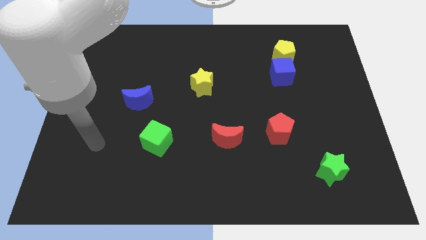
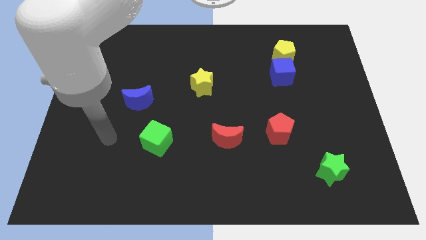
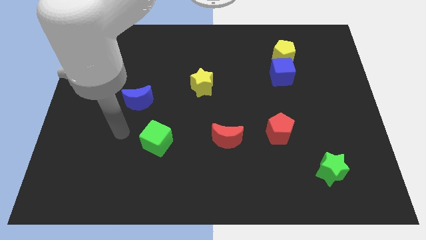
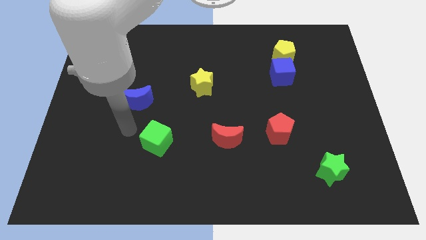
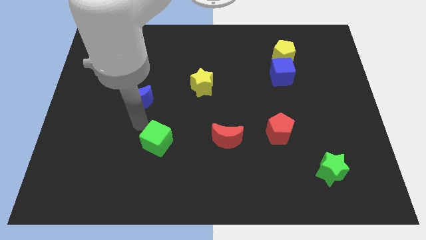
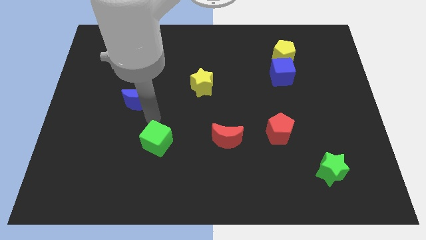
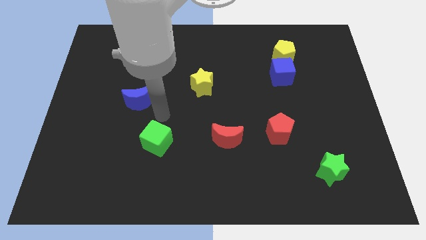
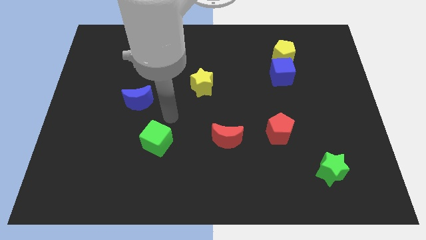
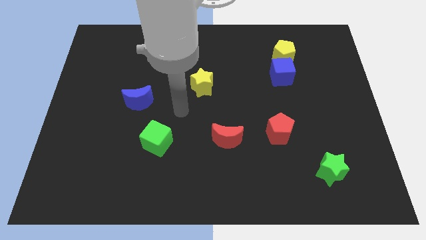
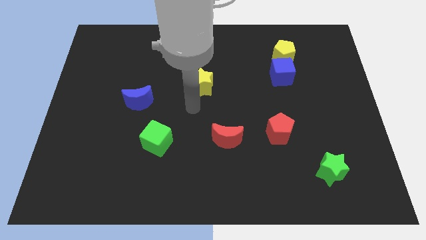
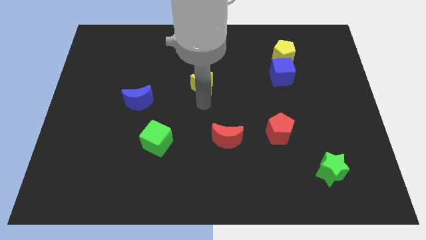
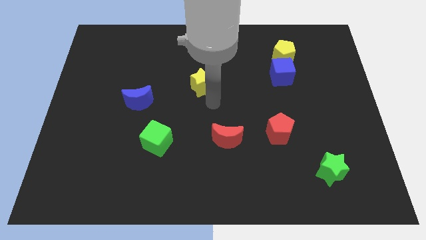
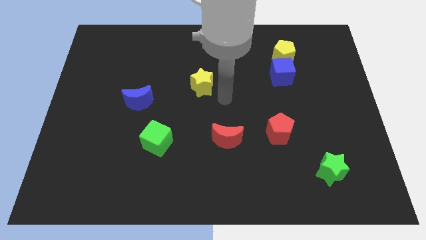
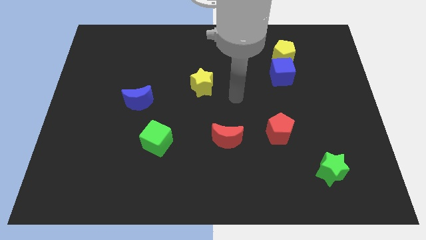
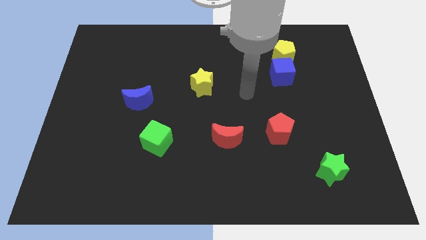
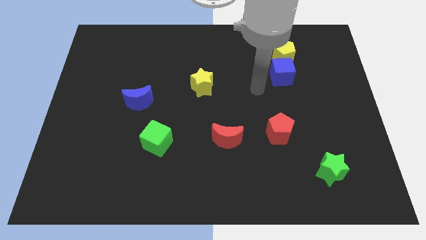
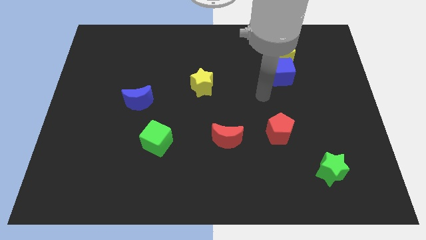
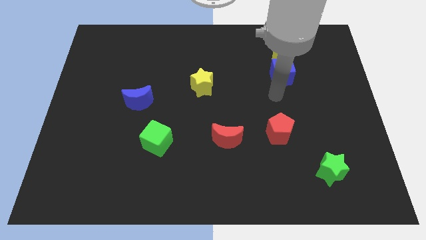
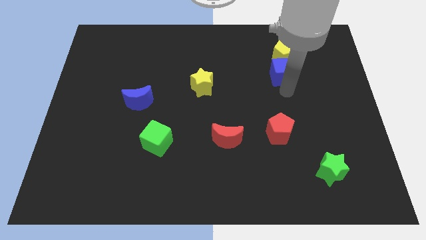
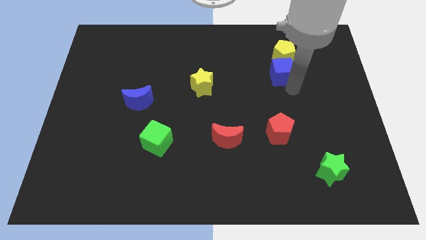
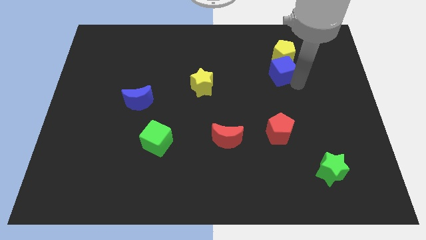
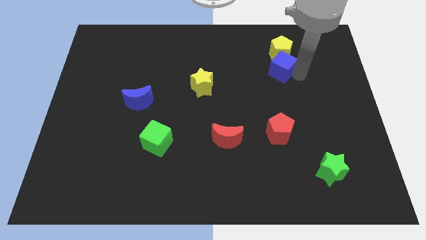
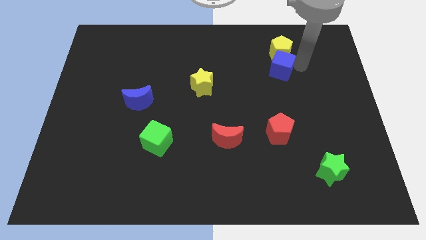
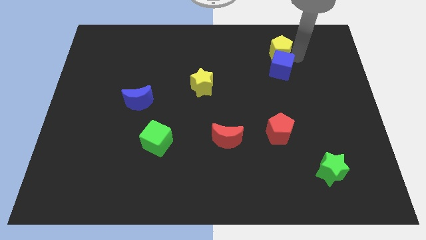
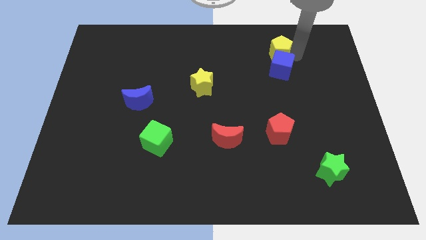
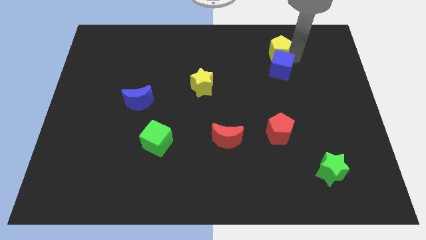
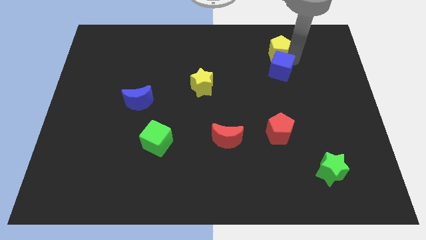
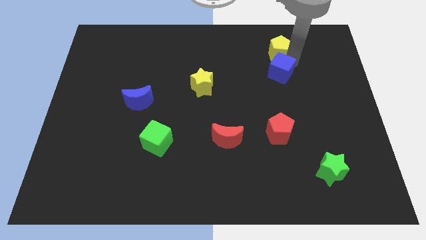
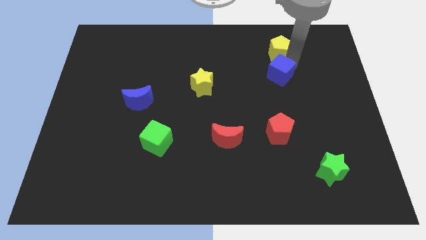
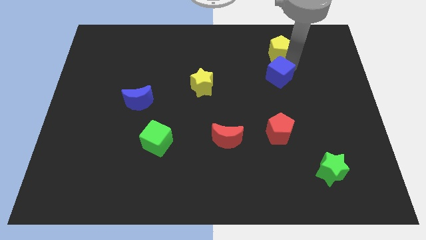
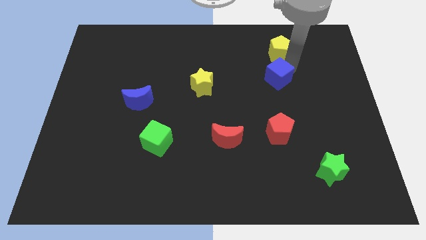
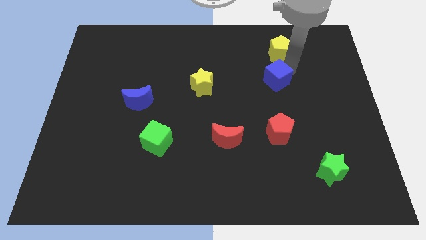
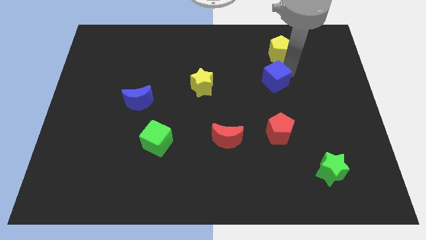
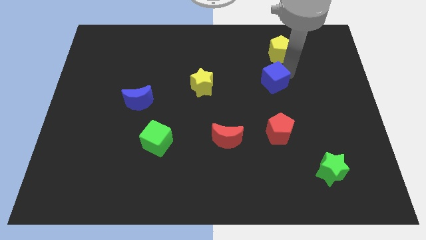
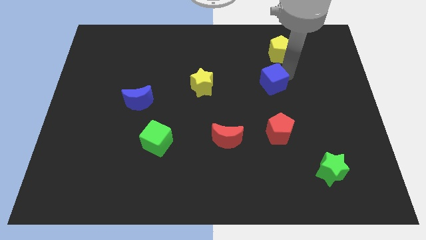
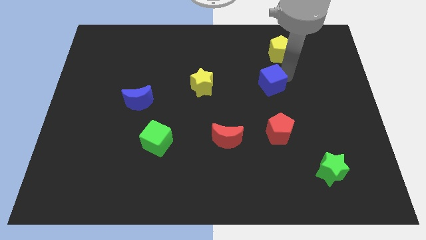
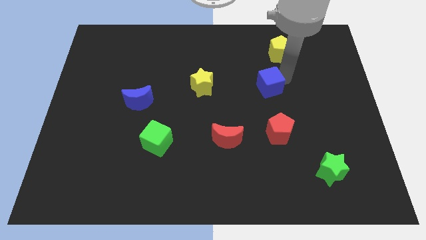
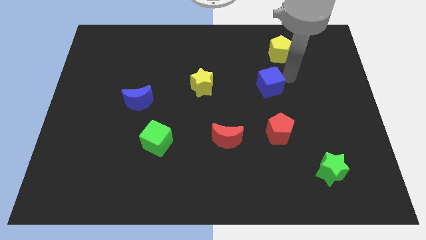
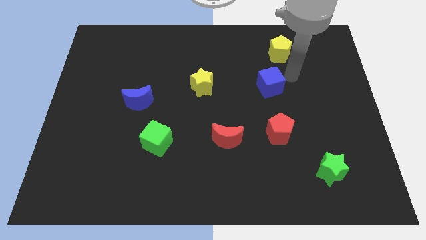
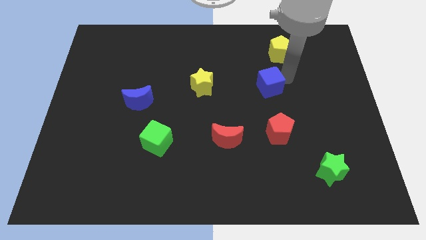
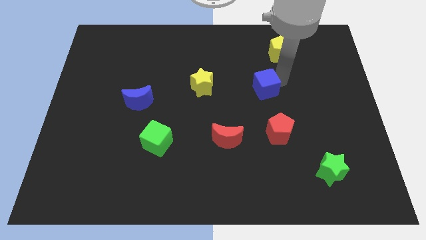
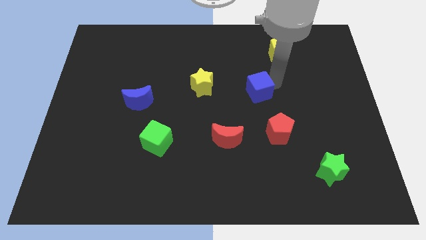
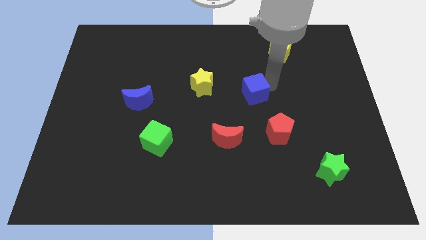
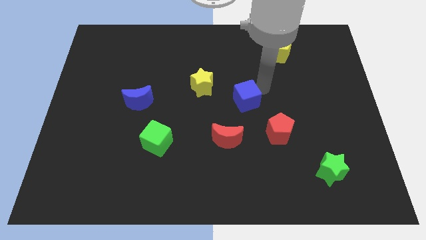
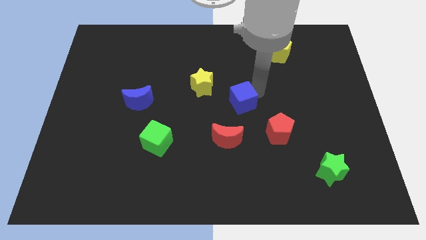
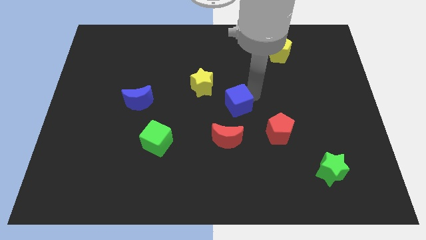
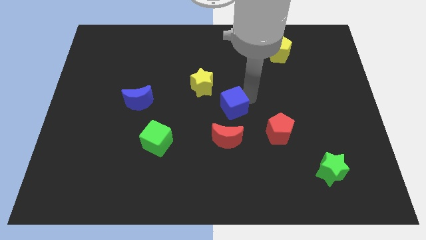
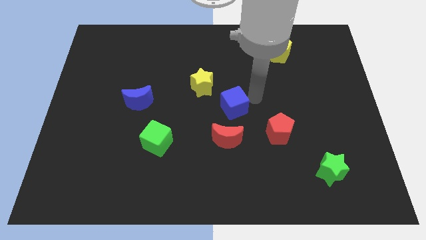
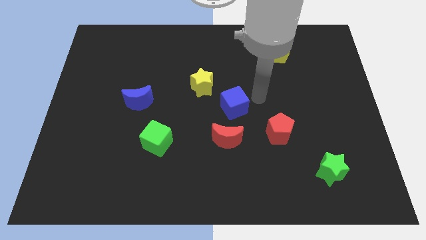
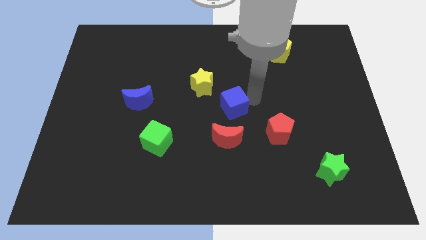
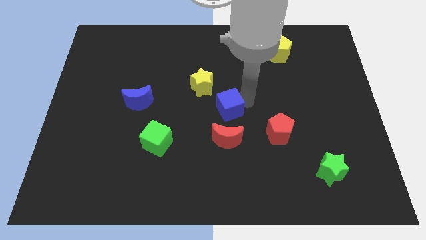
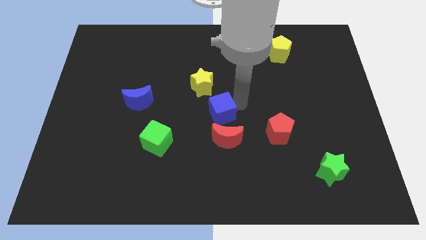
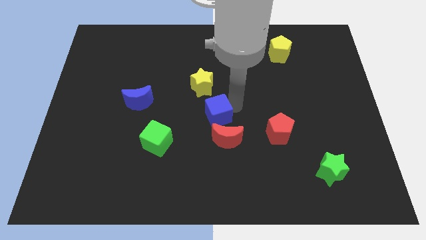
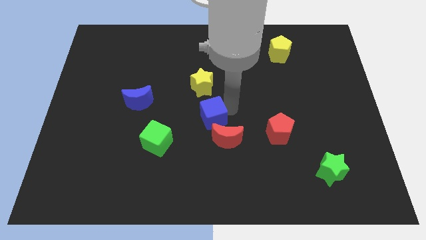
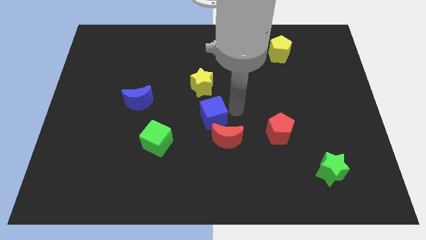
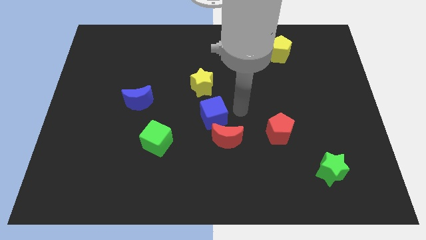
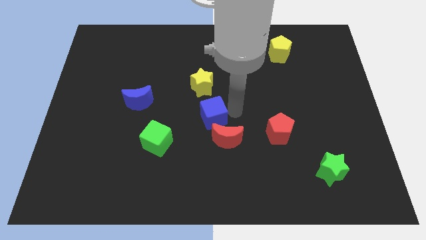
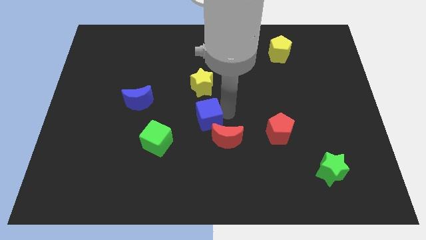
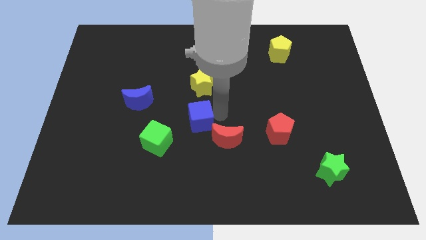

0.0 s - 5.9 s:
put the blue cube to the top right of the green cube

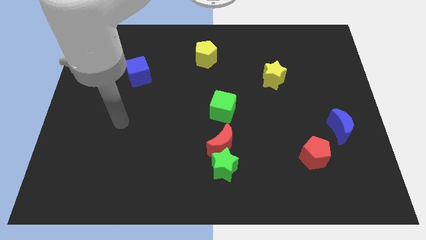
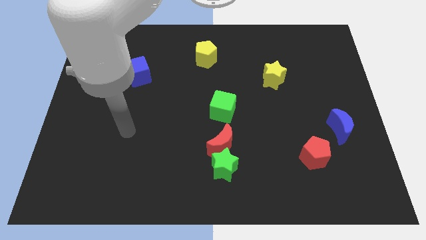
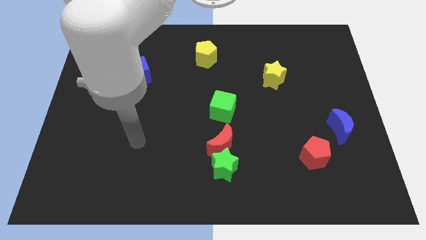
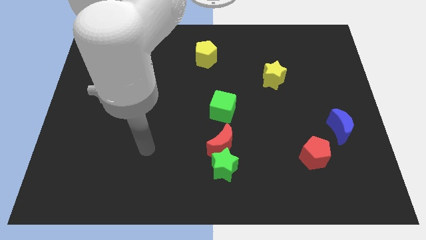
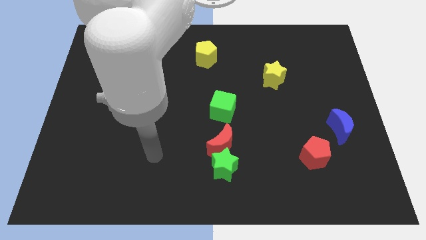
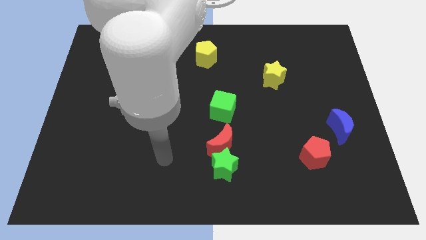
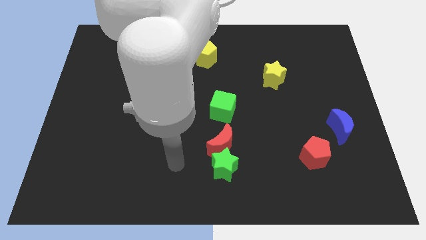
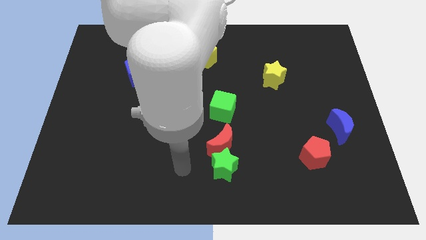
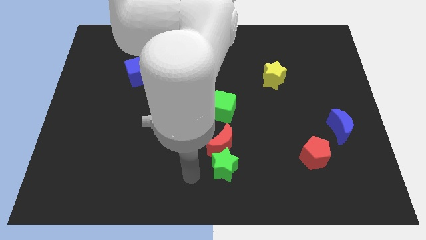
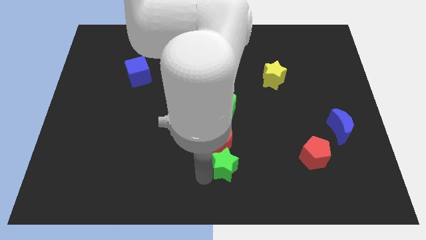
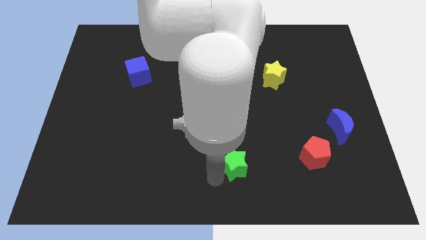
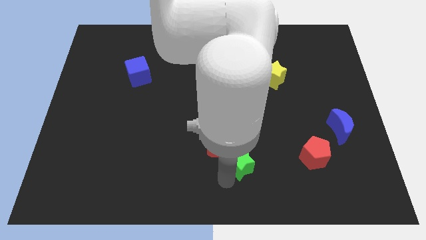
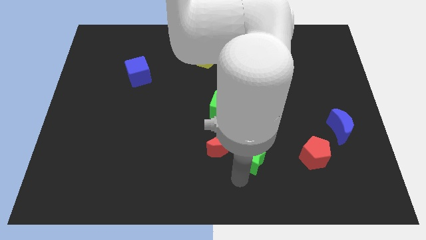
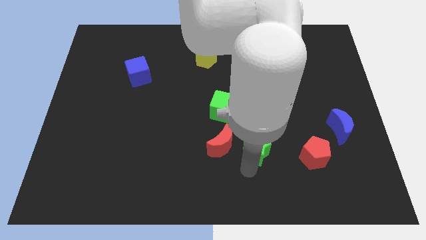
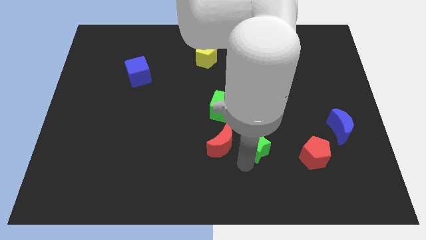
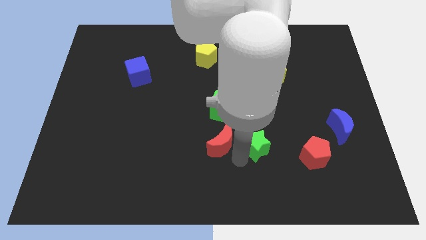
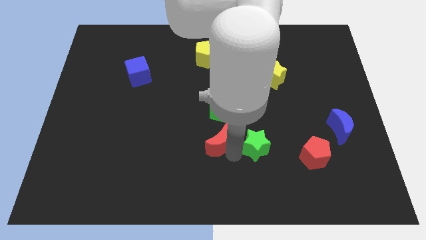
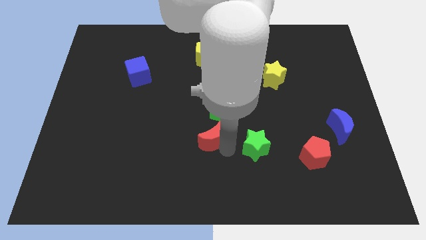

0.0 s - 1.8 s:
push the red moon to the bottom left side of the green cube
